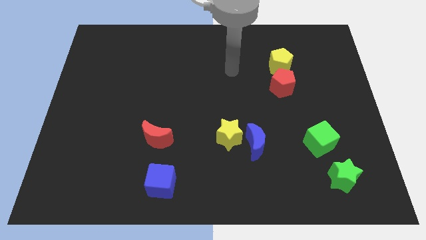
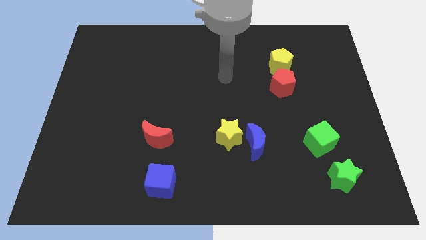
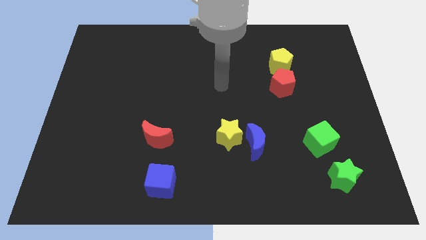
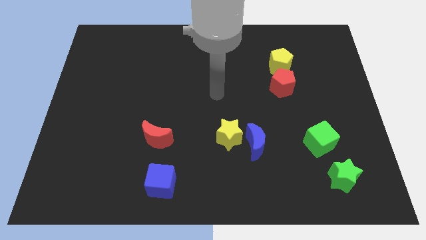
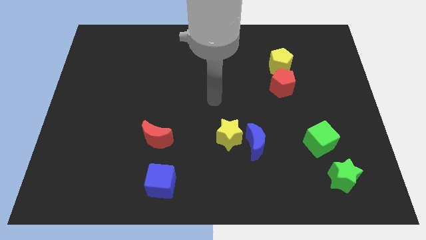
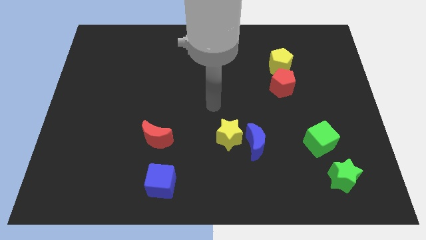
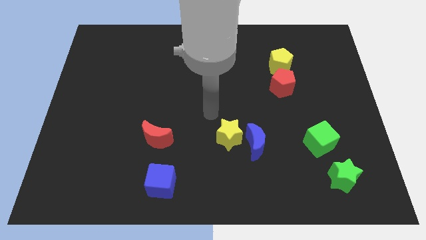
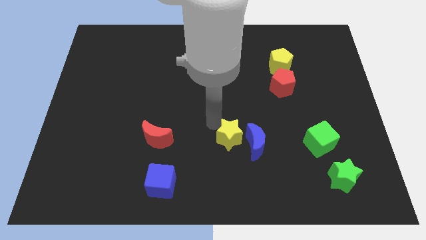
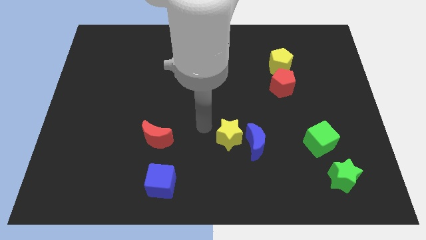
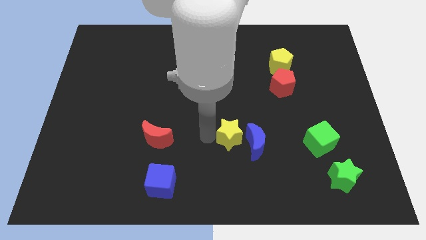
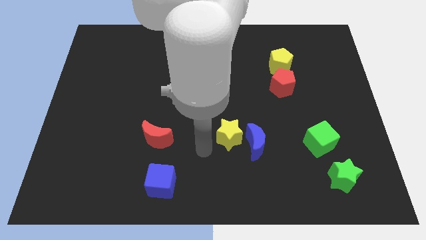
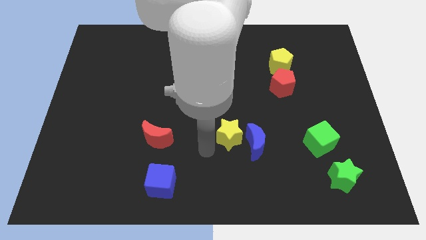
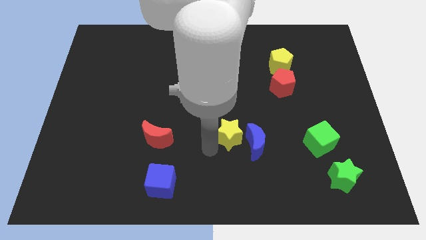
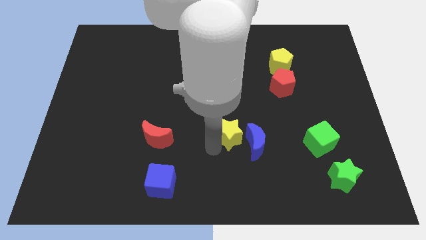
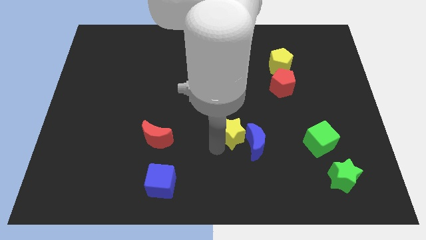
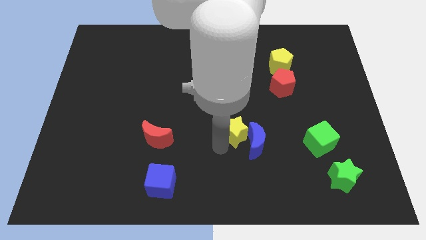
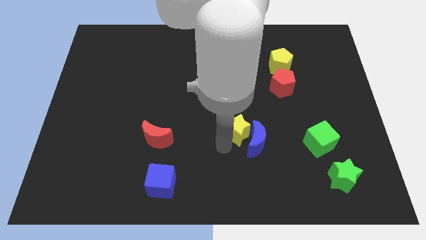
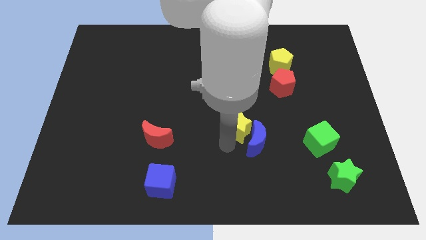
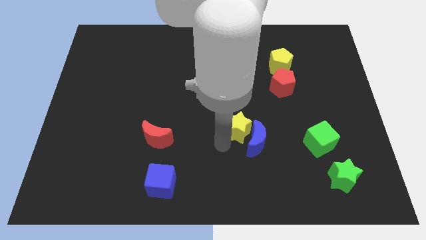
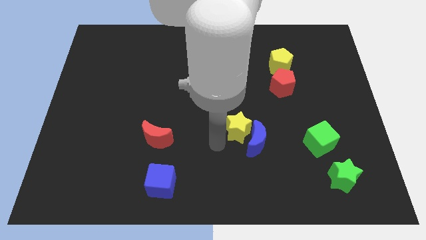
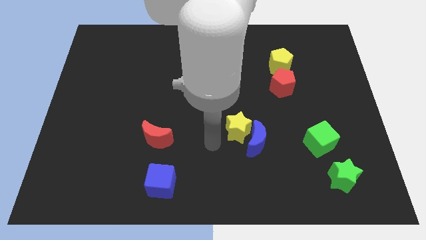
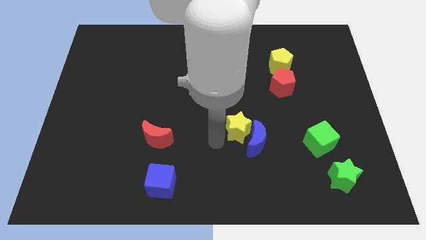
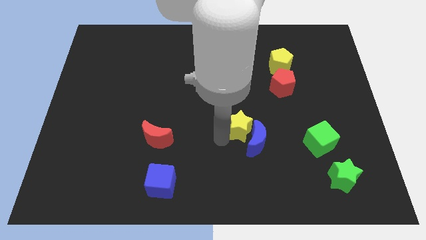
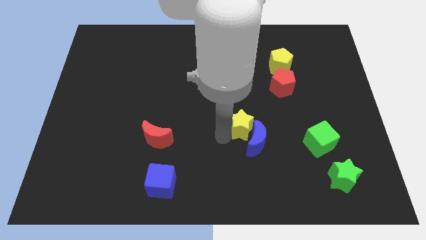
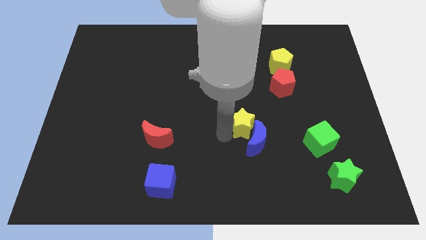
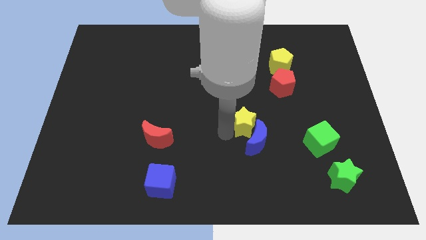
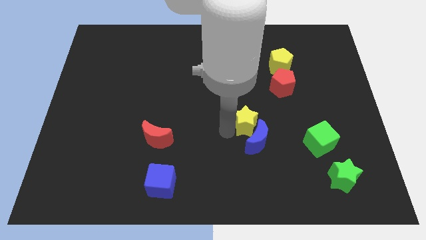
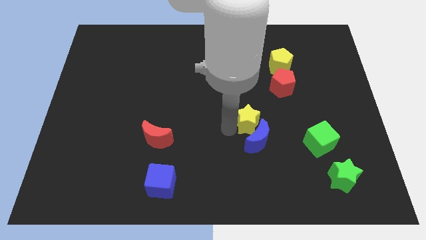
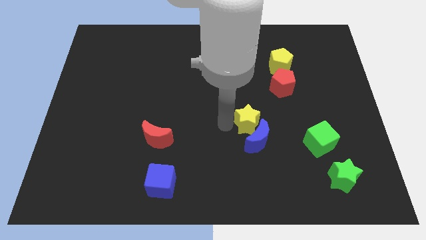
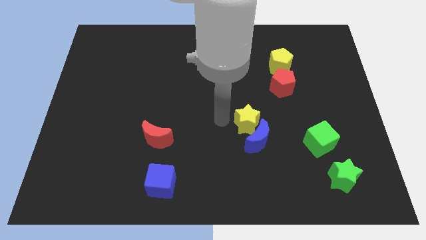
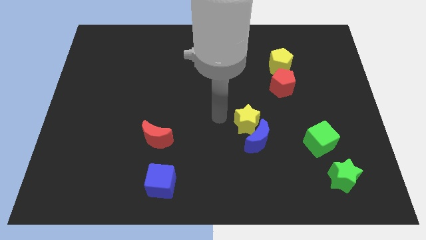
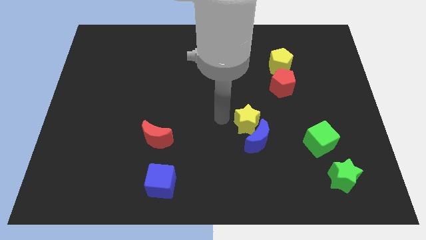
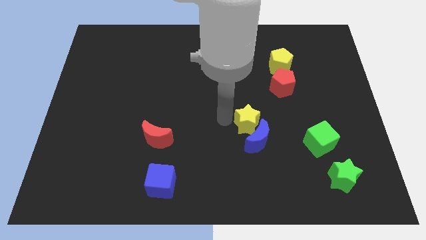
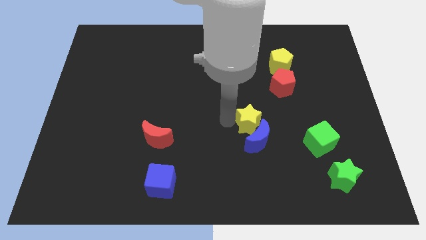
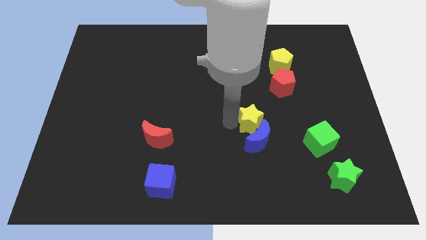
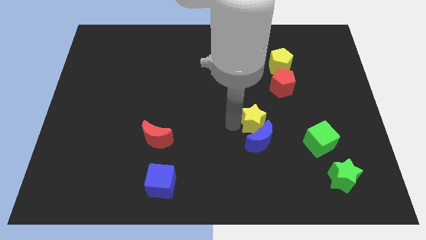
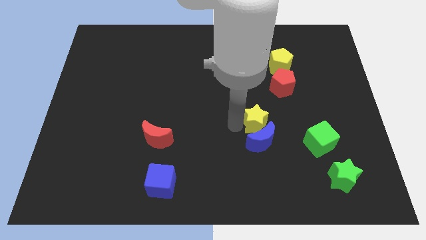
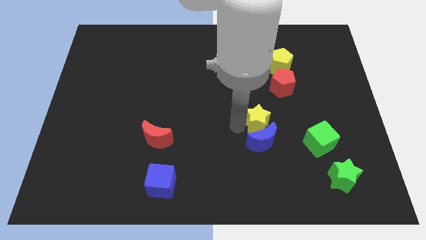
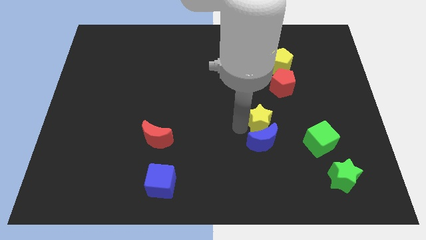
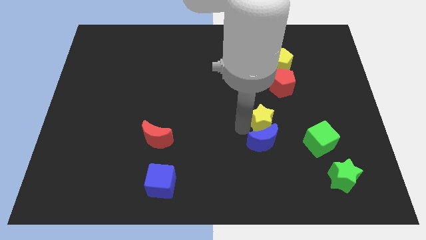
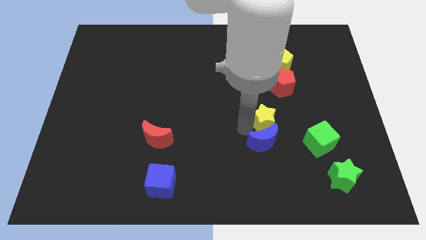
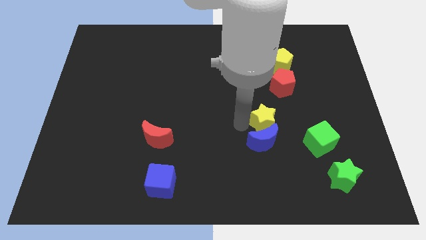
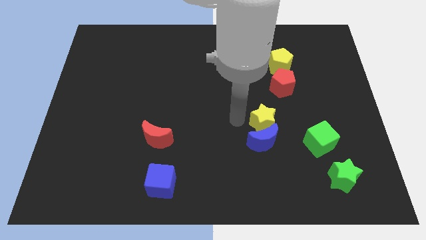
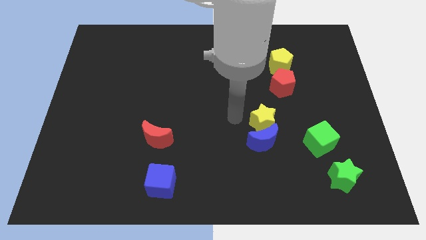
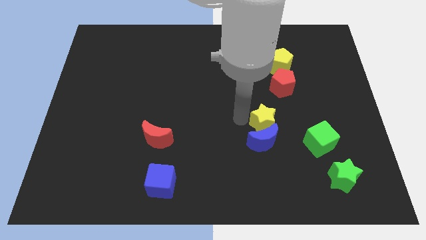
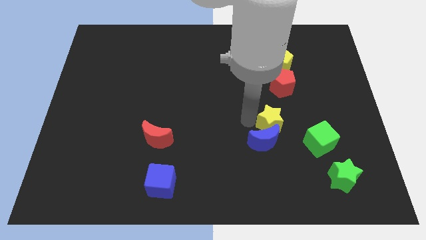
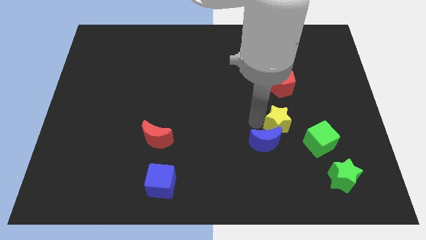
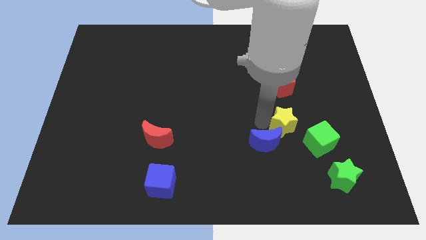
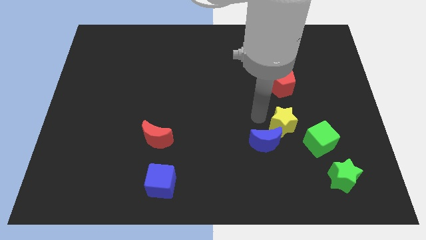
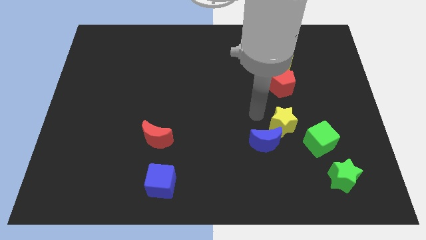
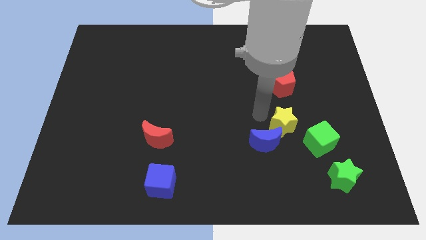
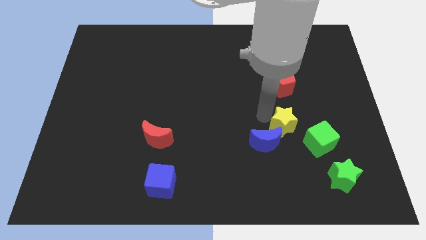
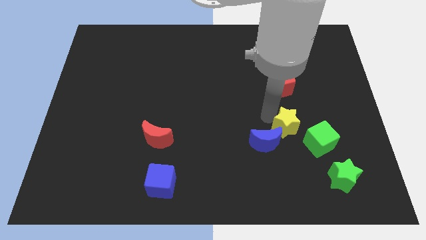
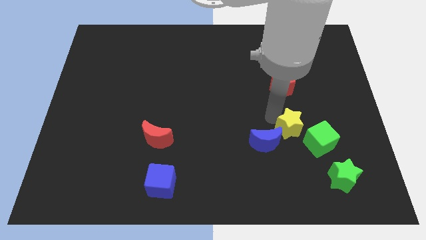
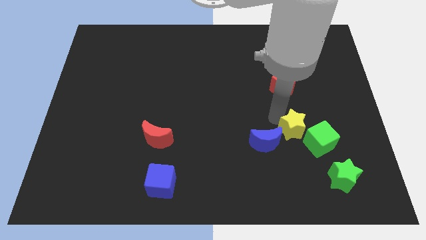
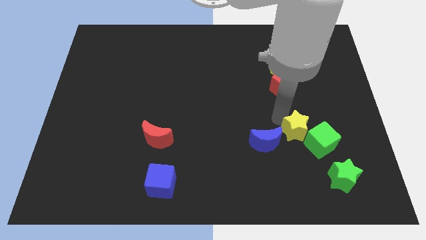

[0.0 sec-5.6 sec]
push the yellow star towards the green cube

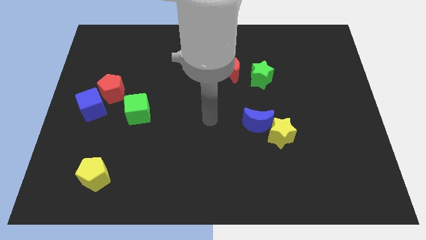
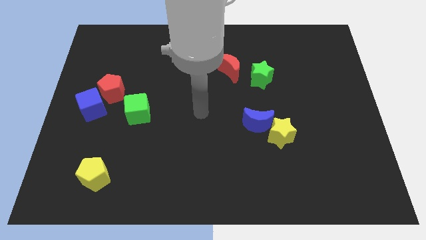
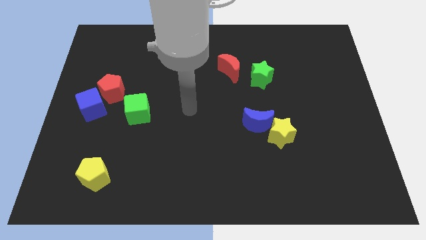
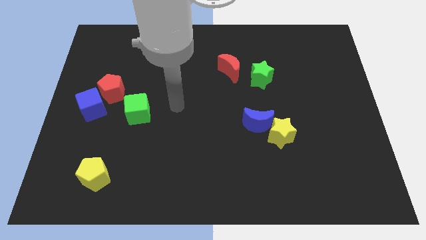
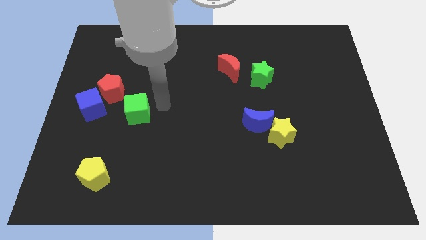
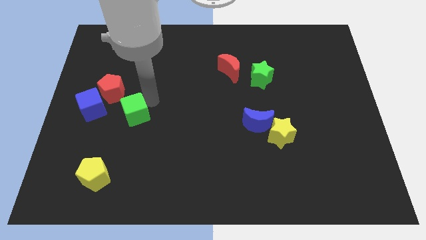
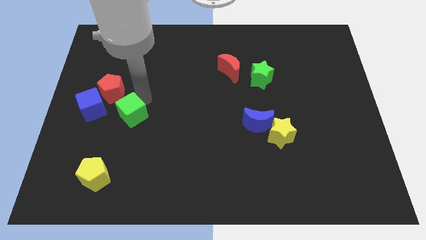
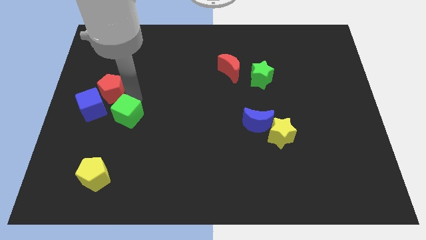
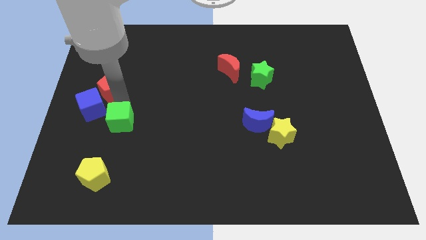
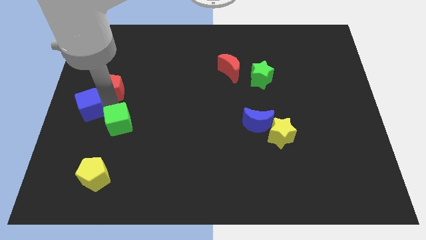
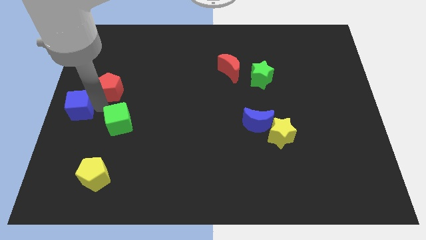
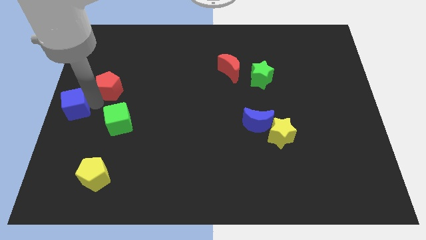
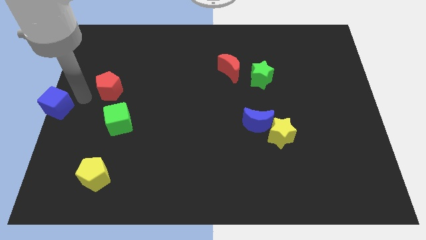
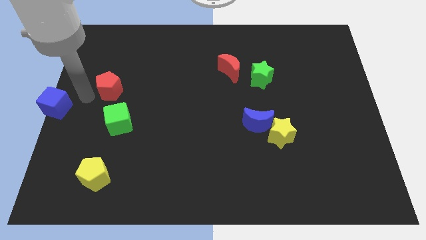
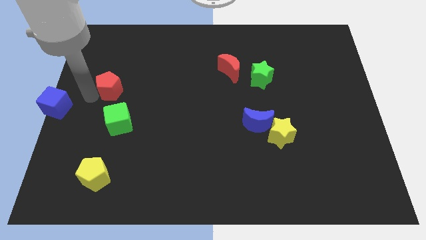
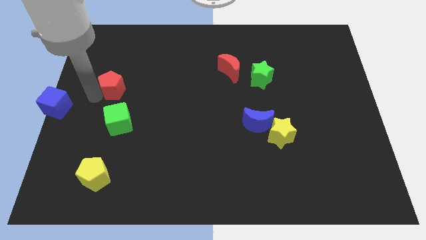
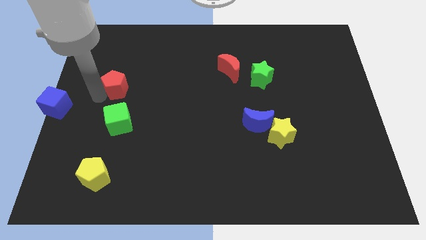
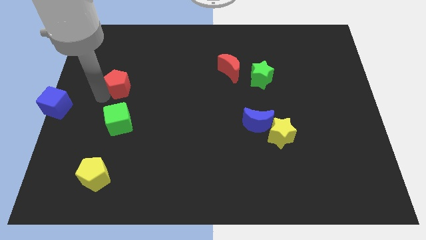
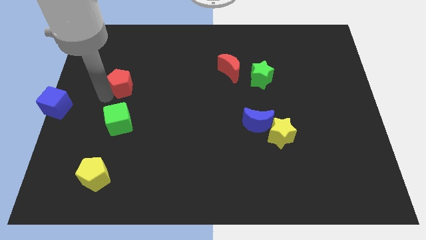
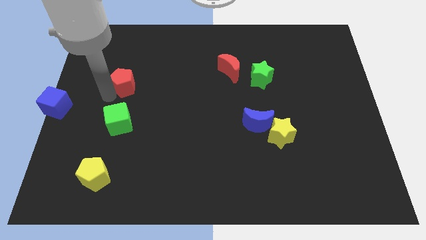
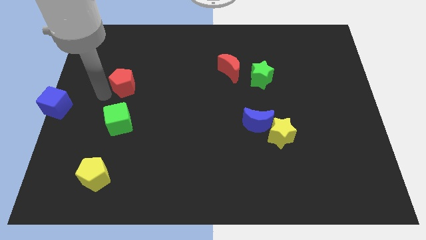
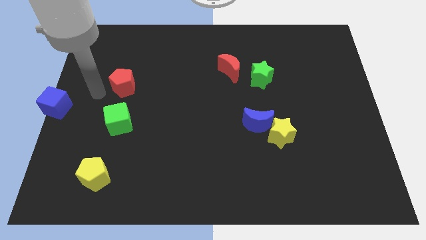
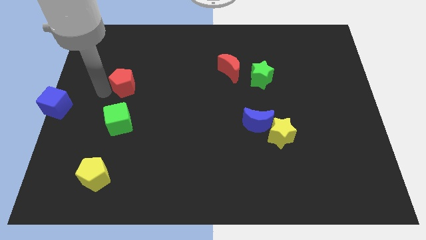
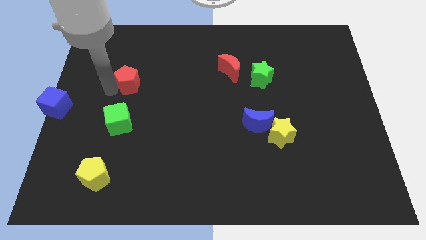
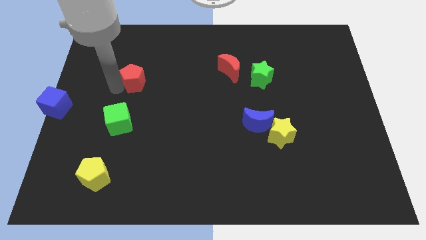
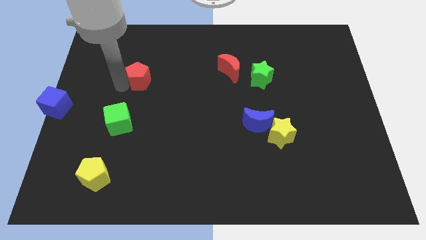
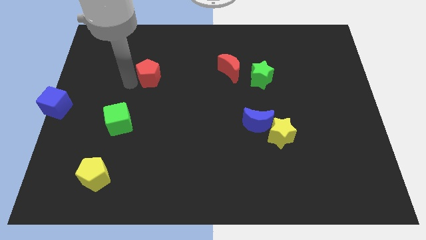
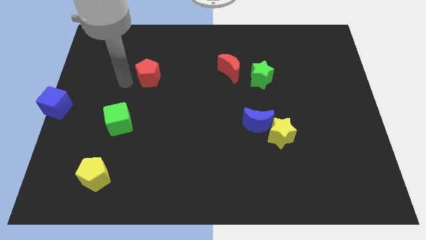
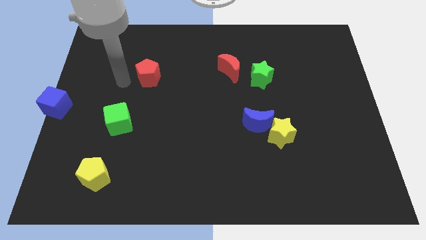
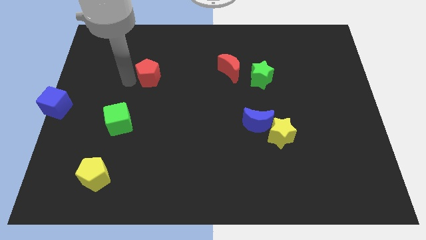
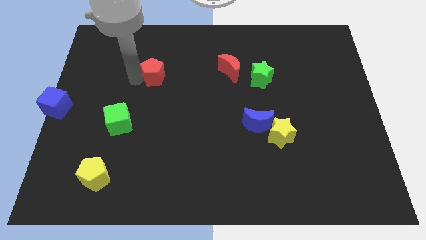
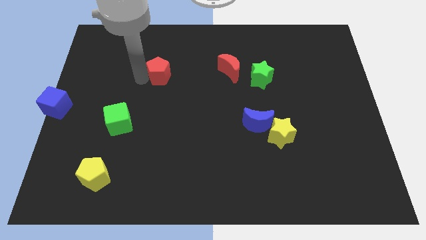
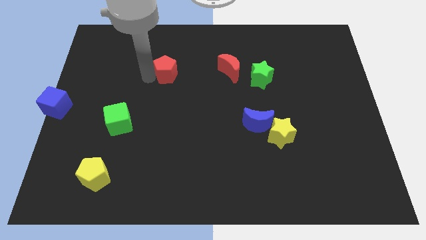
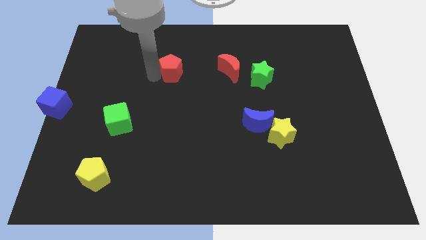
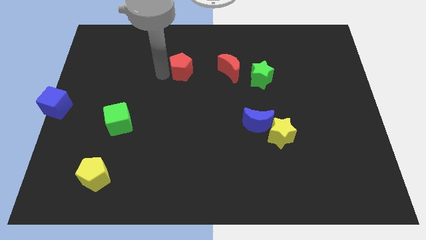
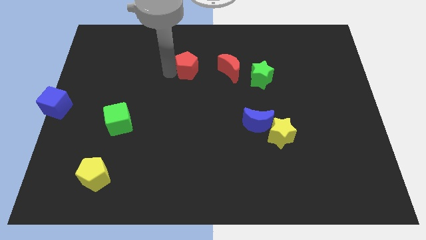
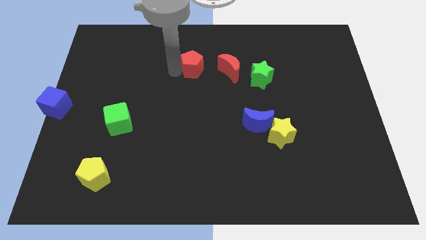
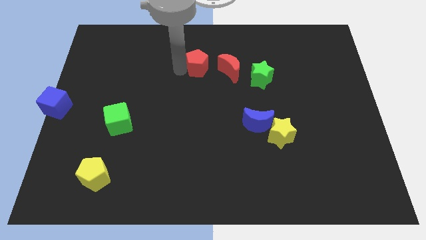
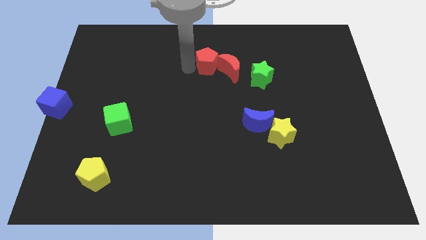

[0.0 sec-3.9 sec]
put the red pentagon to the red moon
